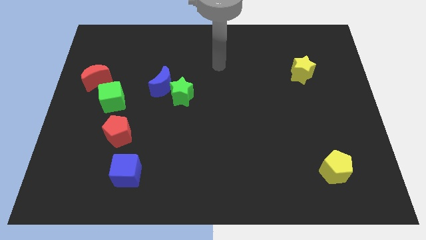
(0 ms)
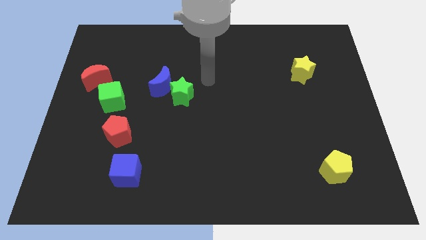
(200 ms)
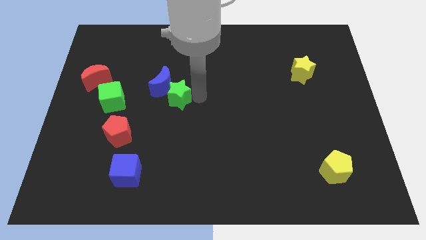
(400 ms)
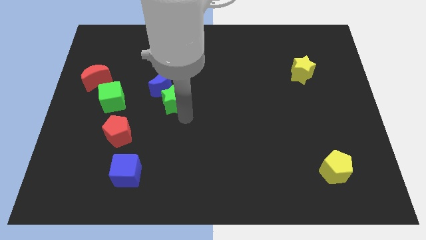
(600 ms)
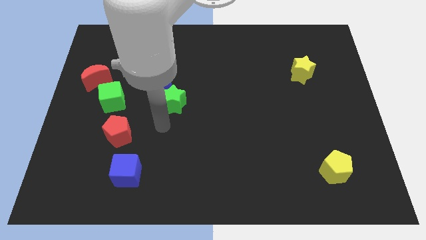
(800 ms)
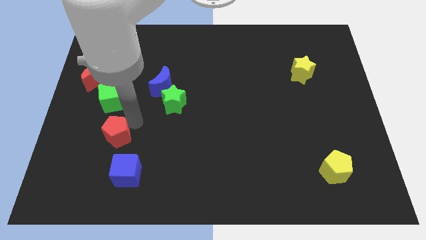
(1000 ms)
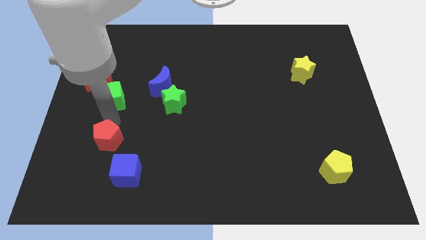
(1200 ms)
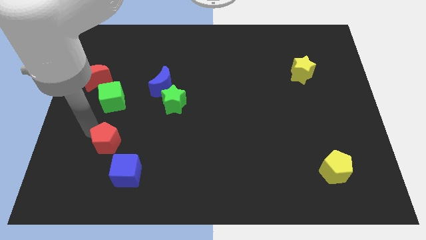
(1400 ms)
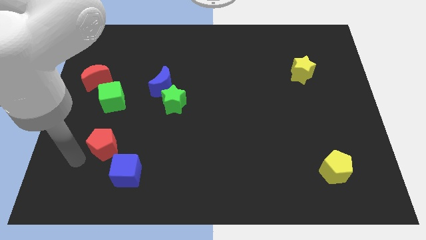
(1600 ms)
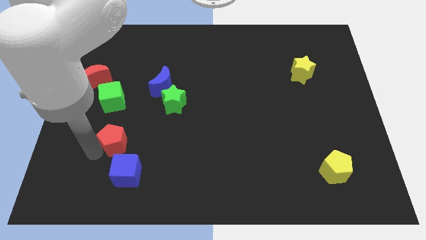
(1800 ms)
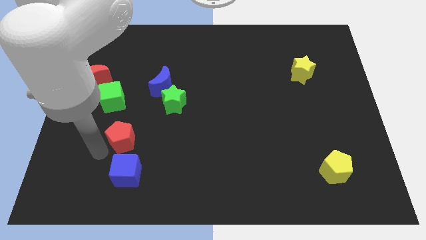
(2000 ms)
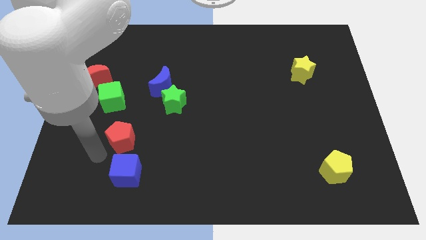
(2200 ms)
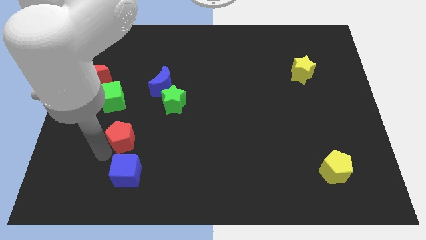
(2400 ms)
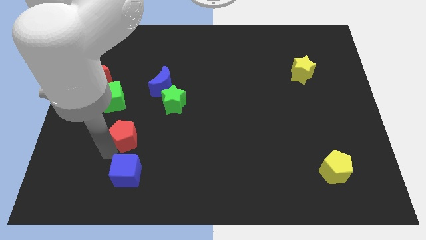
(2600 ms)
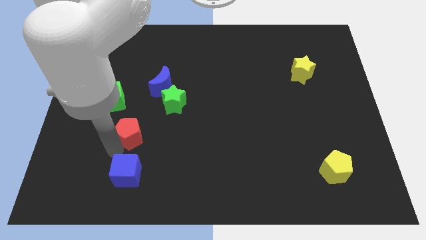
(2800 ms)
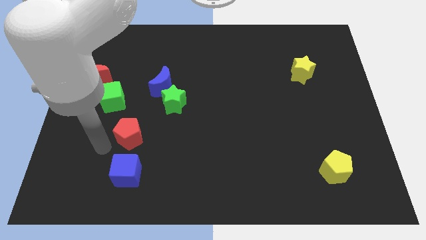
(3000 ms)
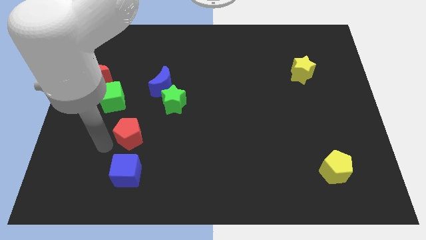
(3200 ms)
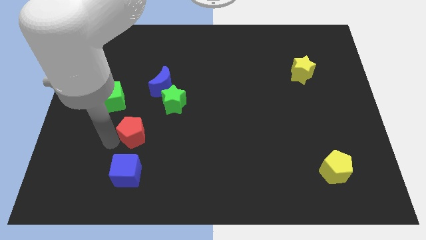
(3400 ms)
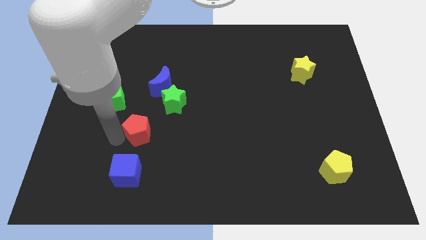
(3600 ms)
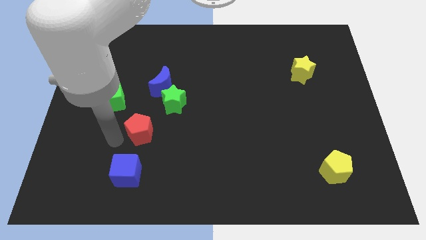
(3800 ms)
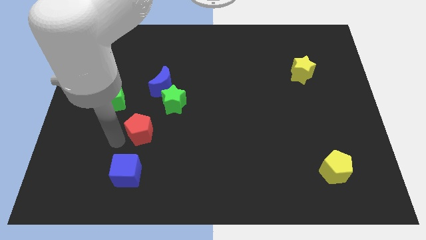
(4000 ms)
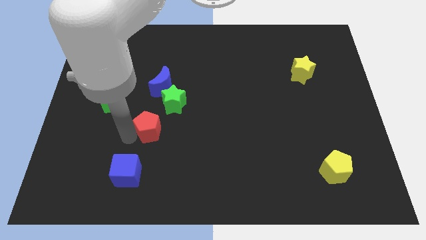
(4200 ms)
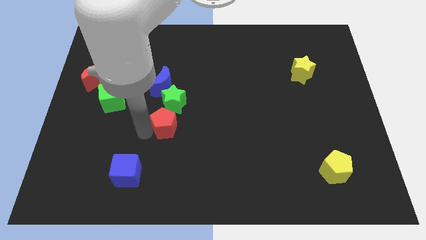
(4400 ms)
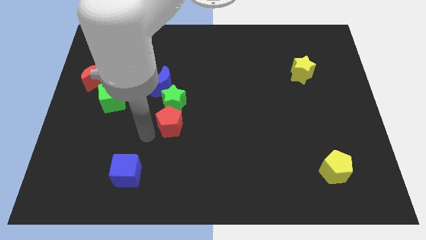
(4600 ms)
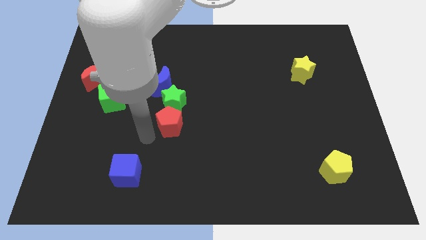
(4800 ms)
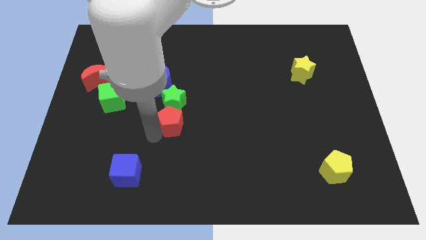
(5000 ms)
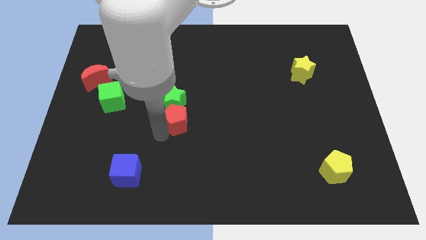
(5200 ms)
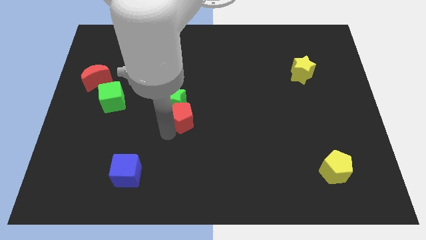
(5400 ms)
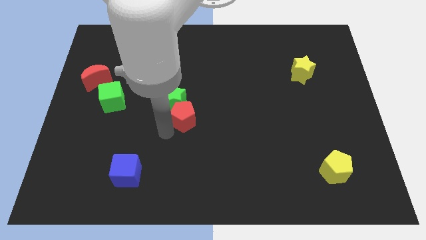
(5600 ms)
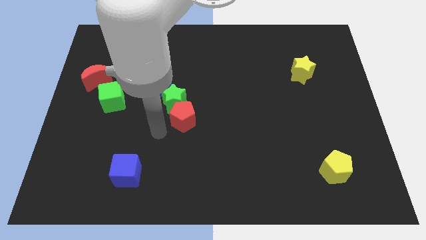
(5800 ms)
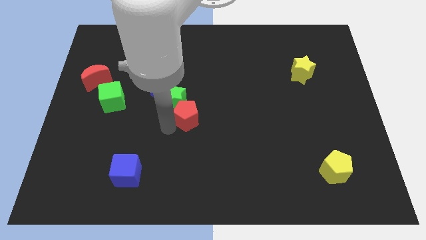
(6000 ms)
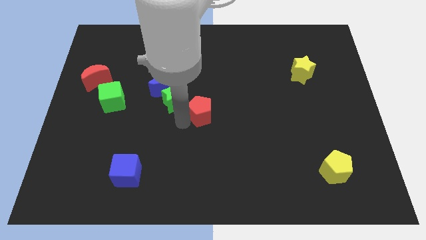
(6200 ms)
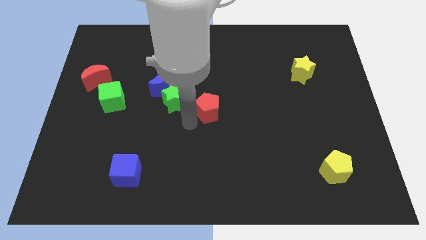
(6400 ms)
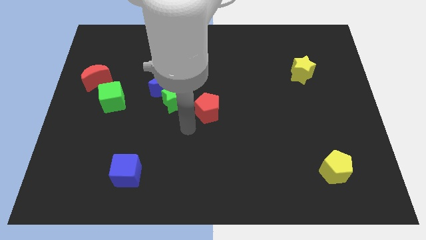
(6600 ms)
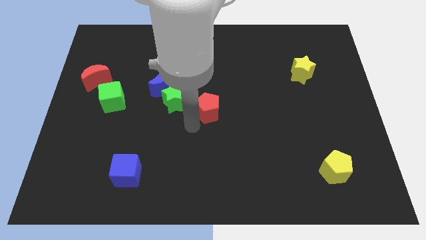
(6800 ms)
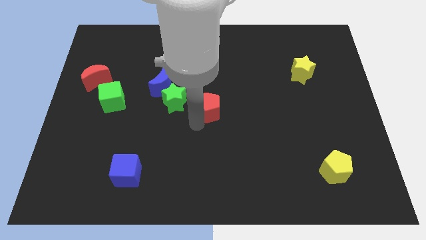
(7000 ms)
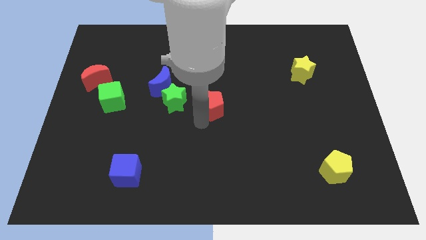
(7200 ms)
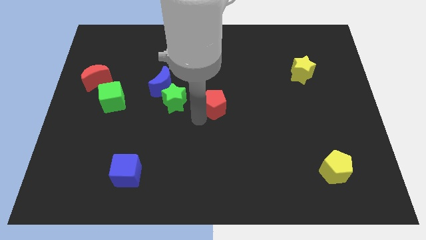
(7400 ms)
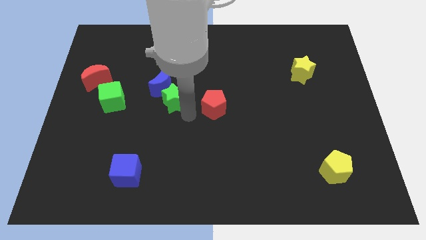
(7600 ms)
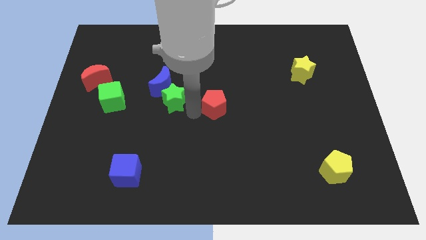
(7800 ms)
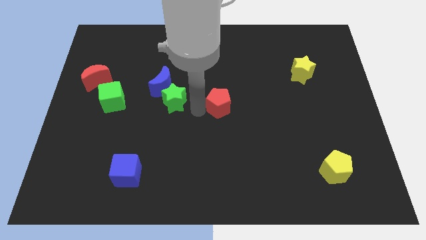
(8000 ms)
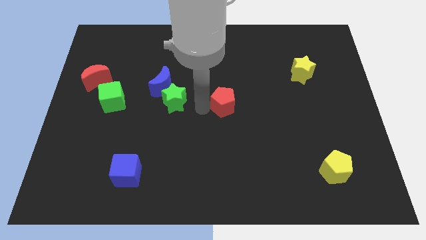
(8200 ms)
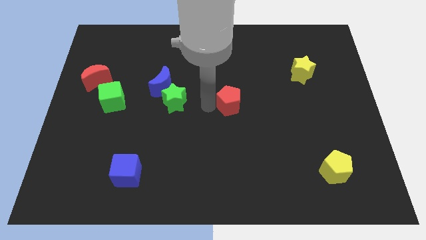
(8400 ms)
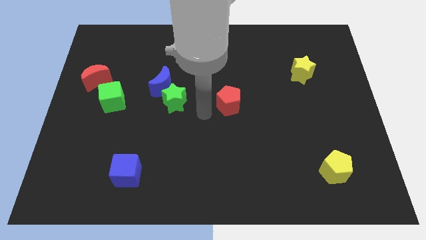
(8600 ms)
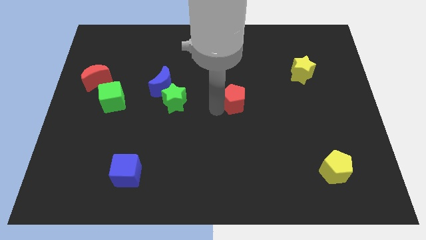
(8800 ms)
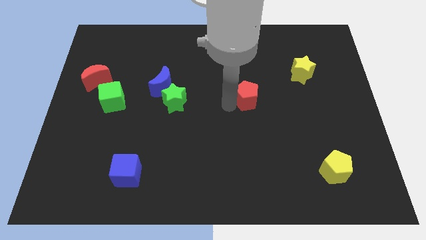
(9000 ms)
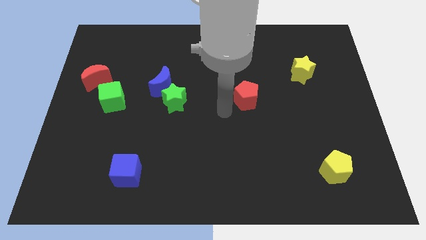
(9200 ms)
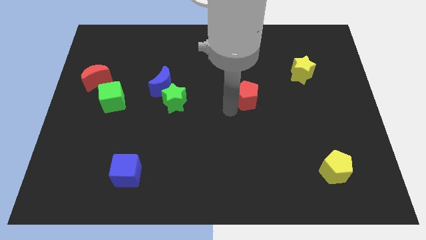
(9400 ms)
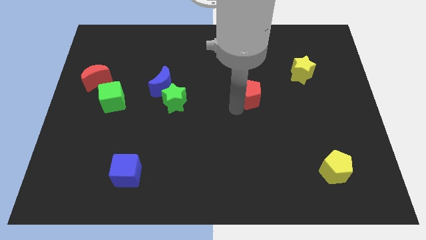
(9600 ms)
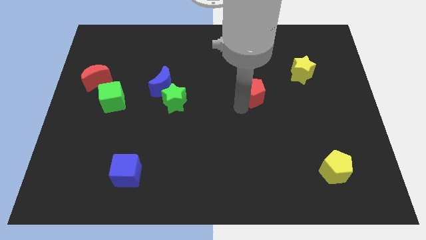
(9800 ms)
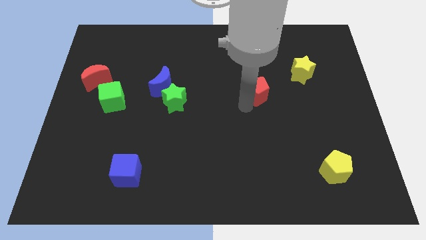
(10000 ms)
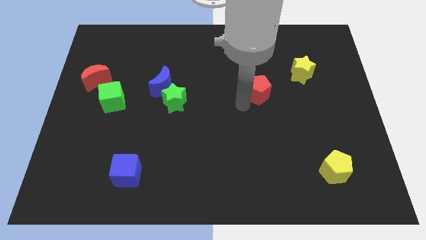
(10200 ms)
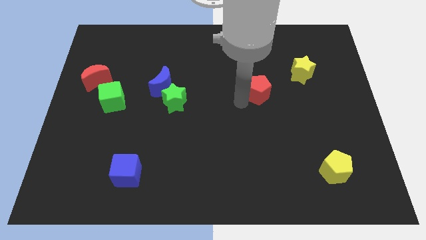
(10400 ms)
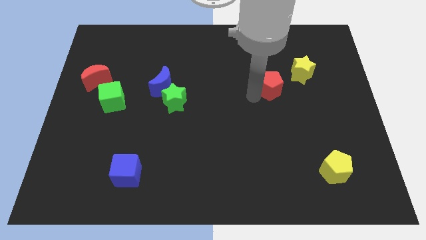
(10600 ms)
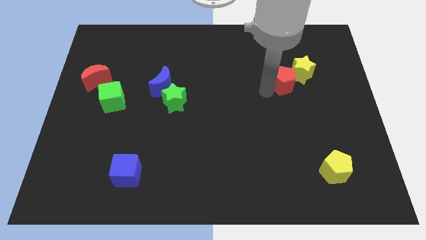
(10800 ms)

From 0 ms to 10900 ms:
move the red pentagon to the yellow star

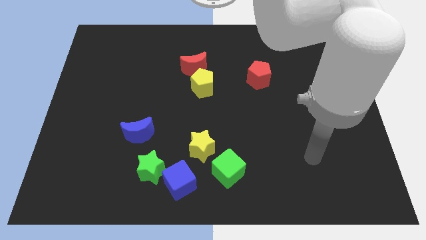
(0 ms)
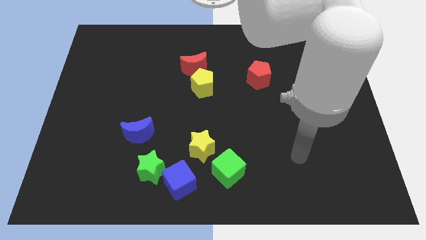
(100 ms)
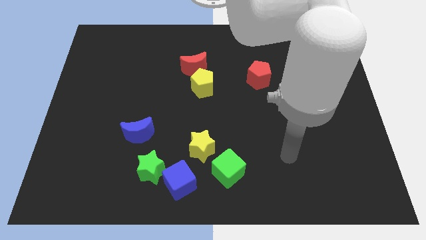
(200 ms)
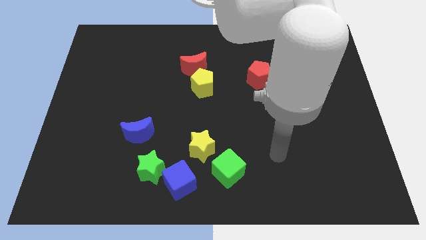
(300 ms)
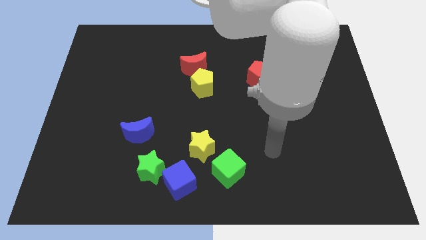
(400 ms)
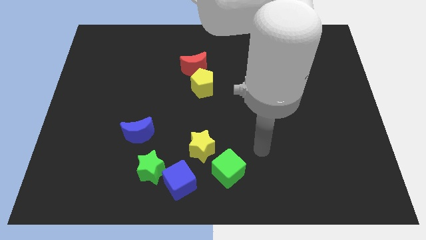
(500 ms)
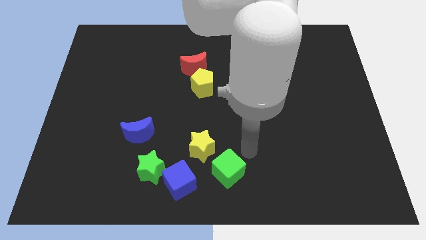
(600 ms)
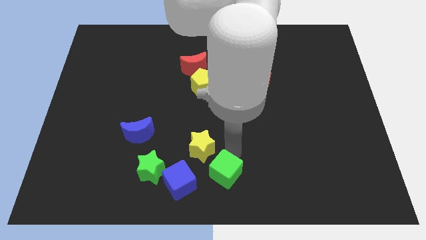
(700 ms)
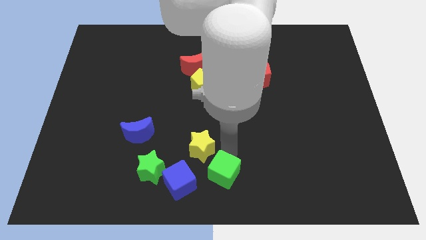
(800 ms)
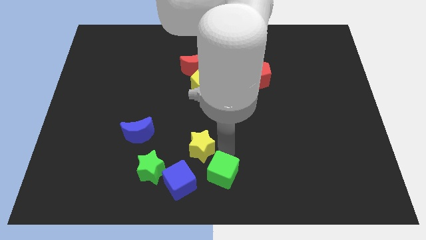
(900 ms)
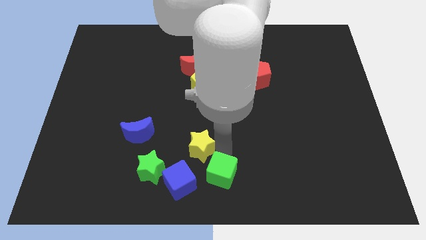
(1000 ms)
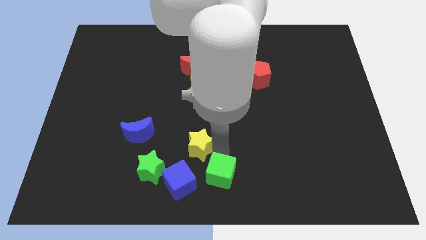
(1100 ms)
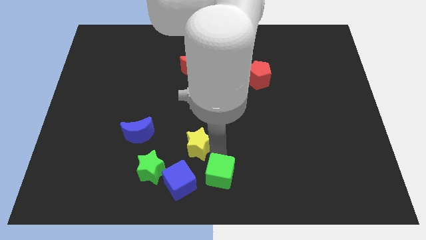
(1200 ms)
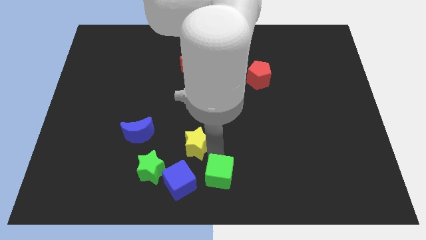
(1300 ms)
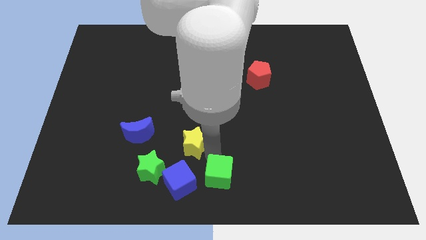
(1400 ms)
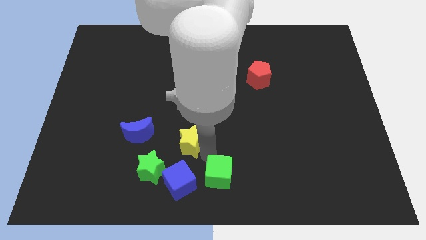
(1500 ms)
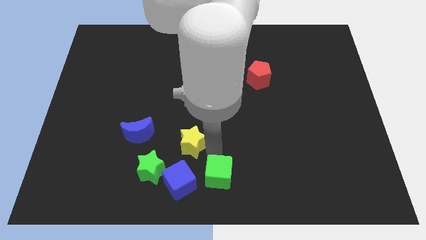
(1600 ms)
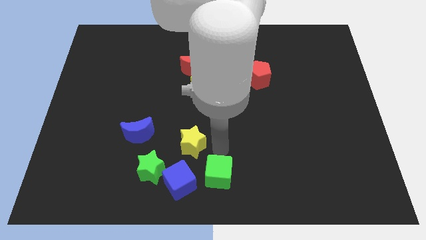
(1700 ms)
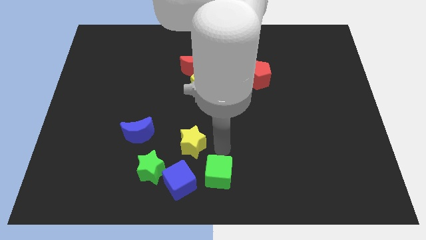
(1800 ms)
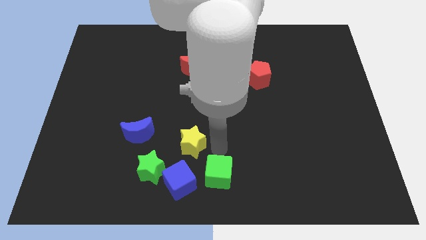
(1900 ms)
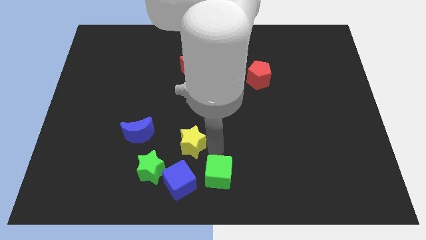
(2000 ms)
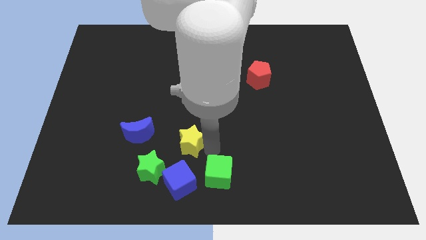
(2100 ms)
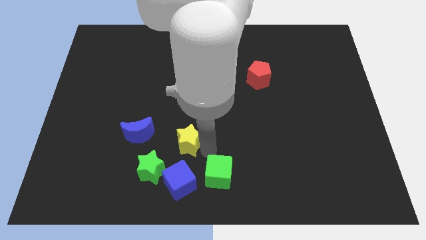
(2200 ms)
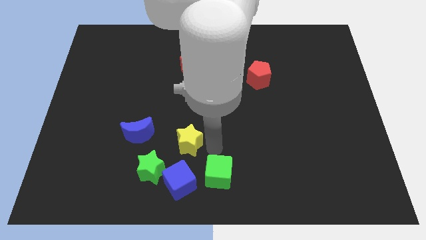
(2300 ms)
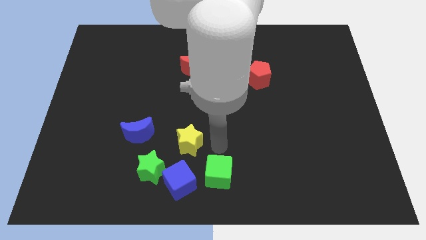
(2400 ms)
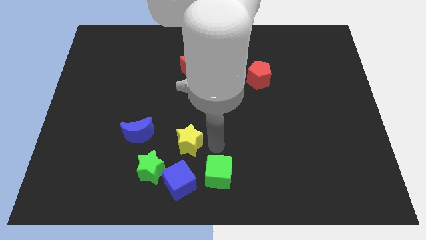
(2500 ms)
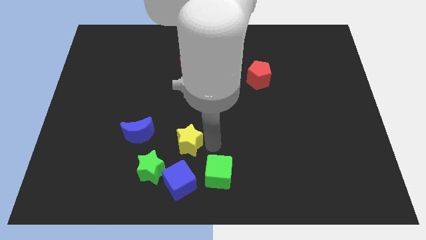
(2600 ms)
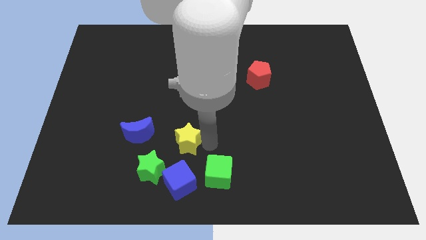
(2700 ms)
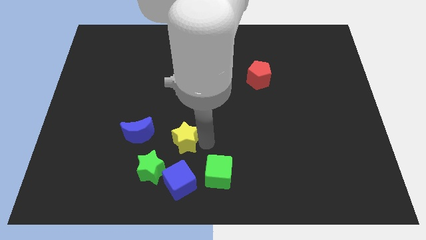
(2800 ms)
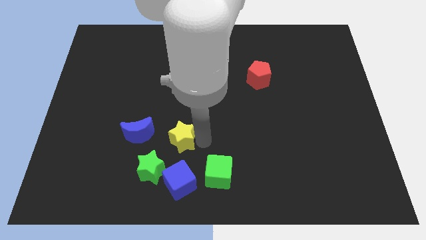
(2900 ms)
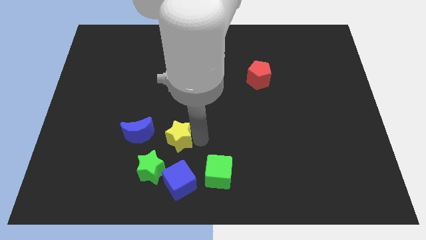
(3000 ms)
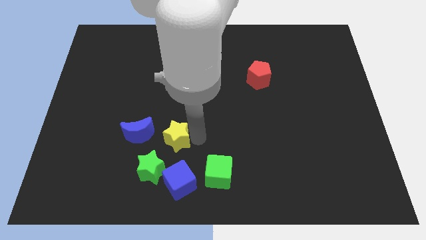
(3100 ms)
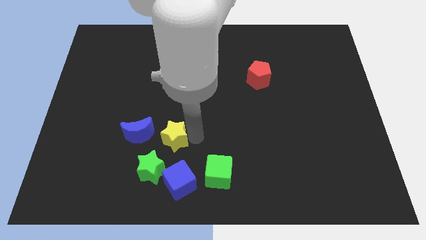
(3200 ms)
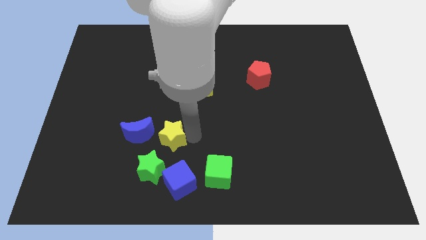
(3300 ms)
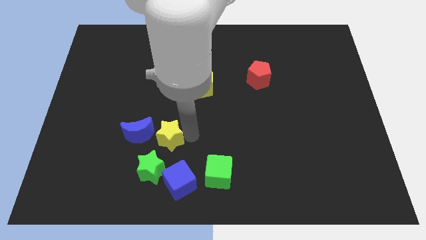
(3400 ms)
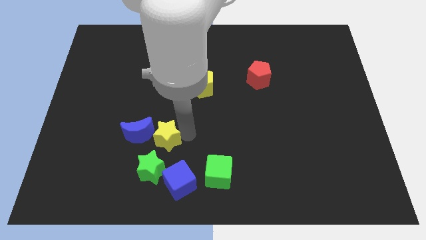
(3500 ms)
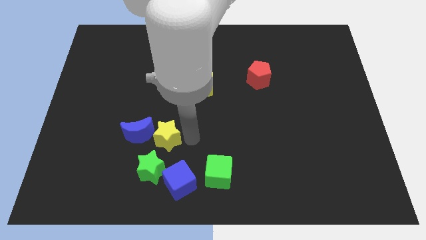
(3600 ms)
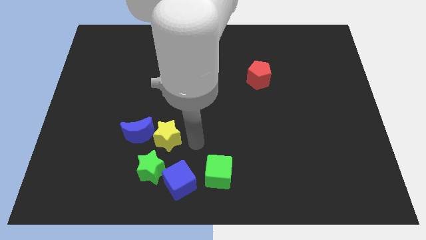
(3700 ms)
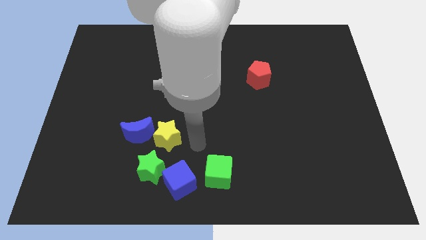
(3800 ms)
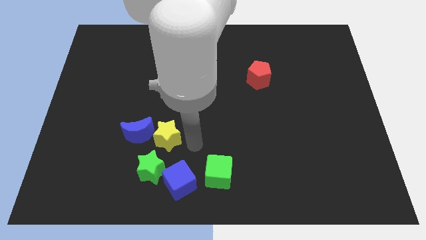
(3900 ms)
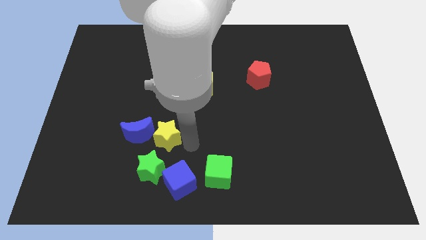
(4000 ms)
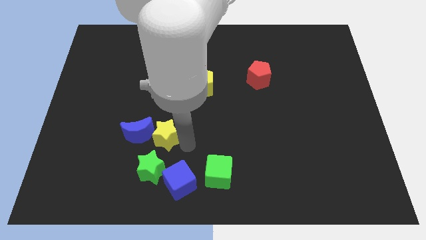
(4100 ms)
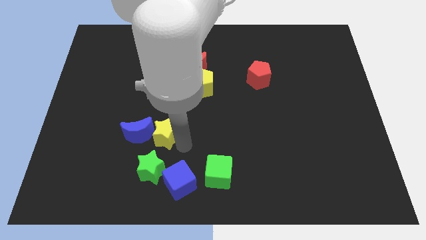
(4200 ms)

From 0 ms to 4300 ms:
slide the yellow star close to the blue moon
